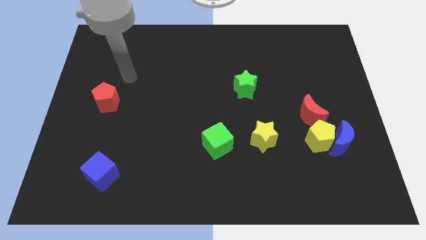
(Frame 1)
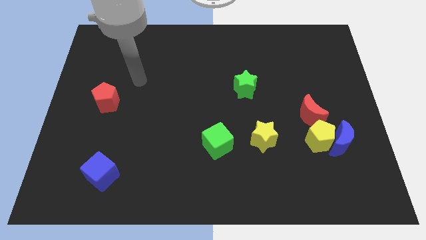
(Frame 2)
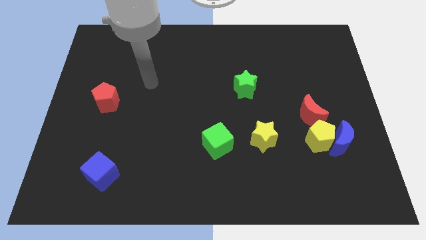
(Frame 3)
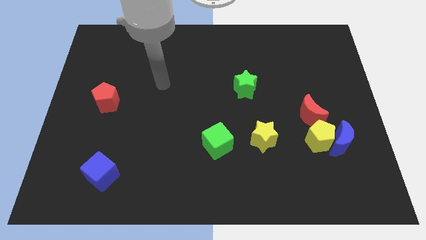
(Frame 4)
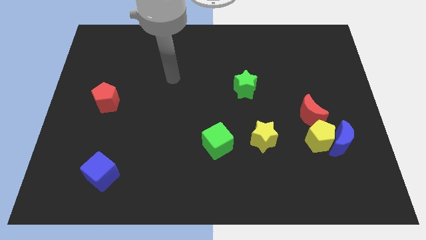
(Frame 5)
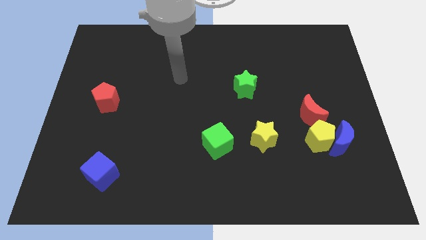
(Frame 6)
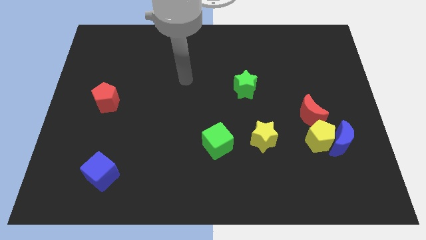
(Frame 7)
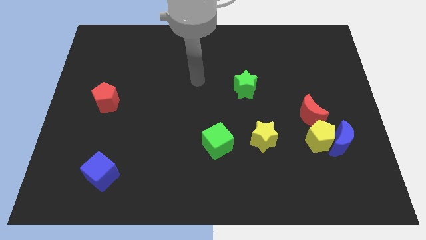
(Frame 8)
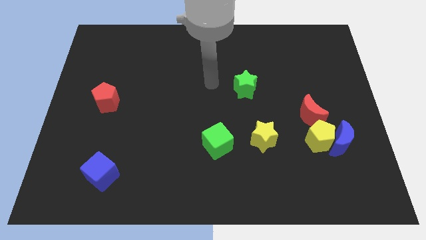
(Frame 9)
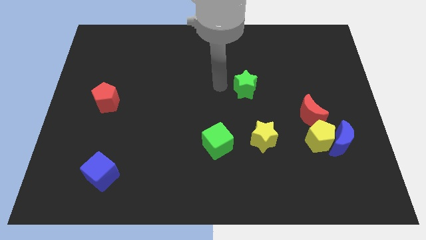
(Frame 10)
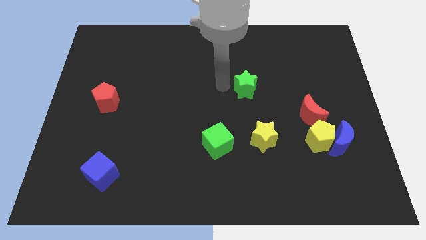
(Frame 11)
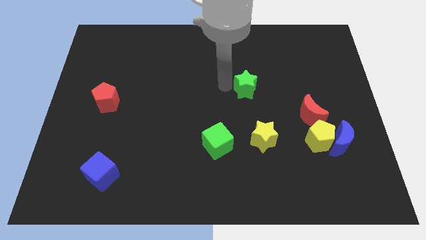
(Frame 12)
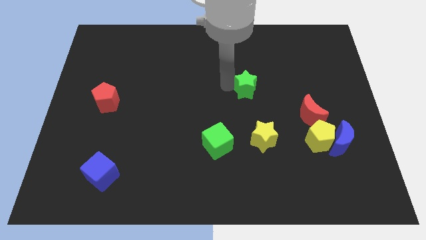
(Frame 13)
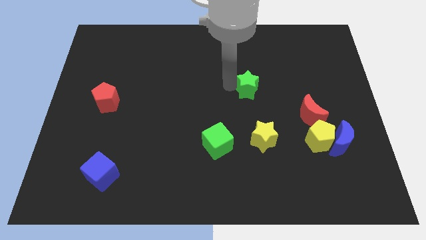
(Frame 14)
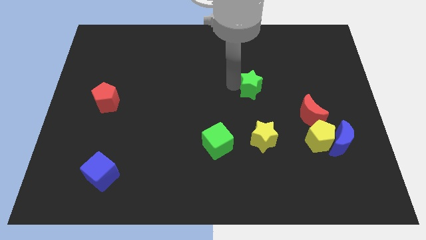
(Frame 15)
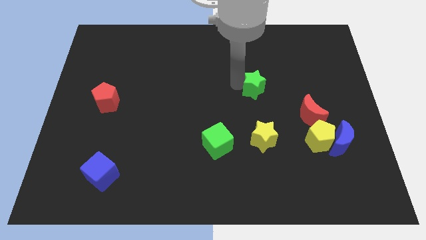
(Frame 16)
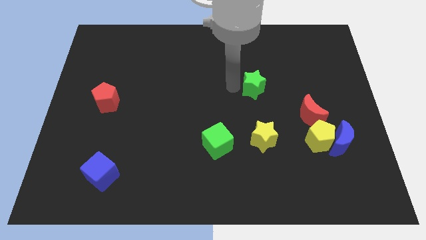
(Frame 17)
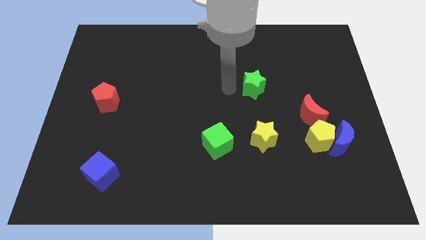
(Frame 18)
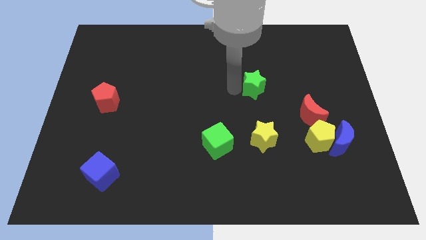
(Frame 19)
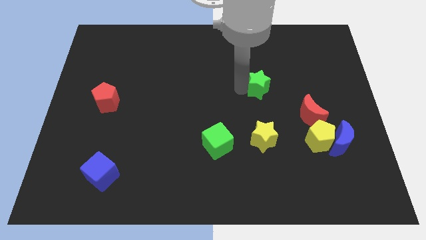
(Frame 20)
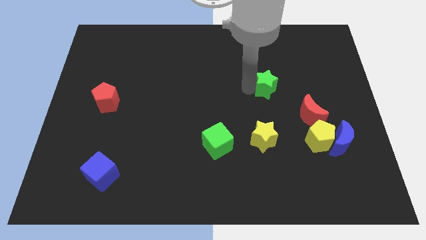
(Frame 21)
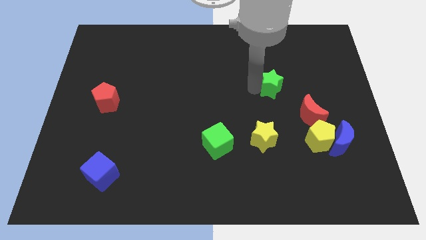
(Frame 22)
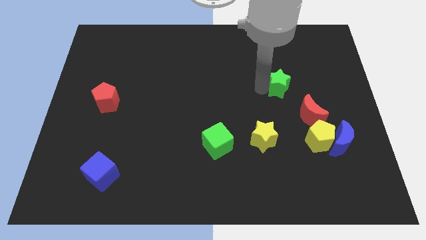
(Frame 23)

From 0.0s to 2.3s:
push the green star a bit to the right

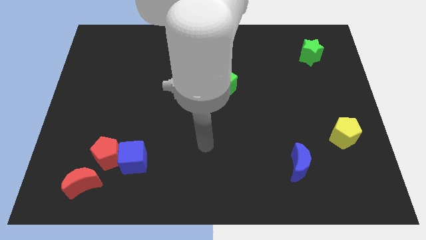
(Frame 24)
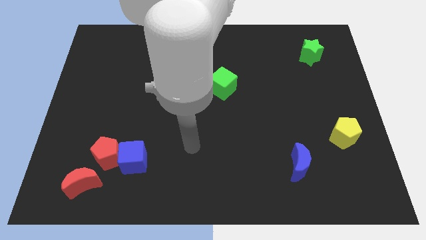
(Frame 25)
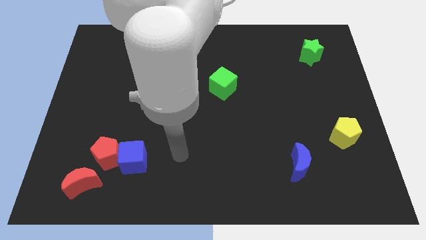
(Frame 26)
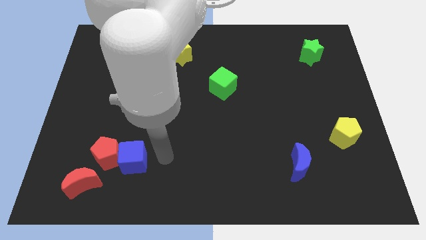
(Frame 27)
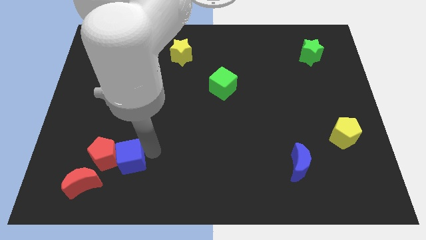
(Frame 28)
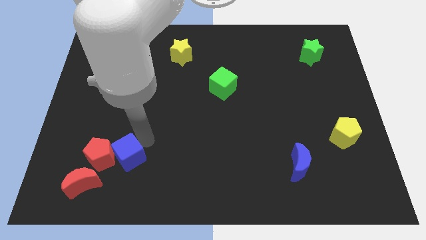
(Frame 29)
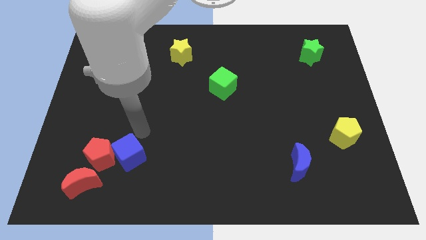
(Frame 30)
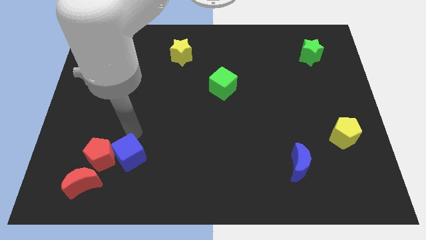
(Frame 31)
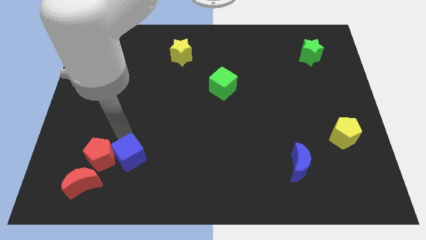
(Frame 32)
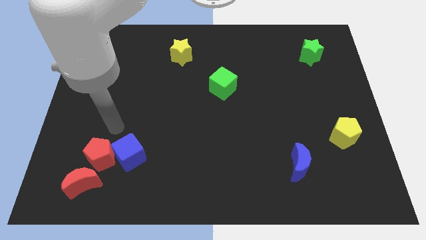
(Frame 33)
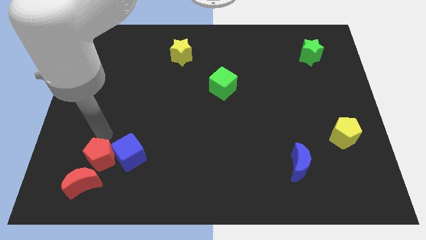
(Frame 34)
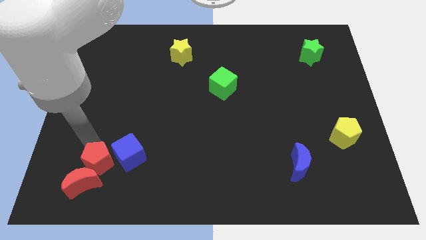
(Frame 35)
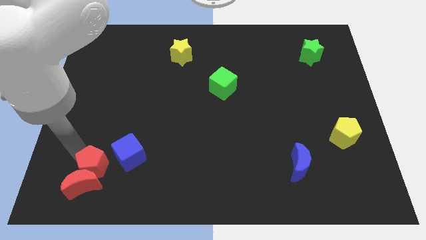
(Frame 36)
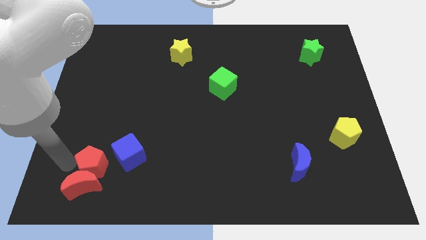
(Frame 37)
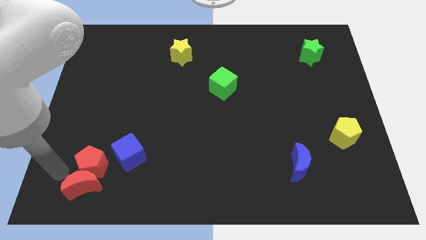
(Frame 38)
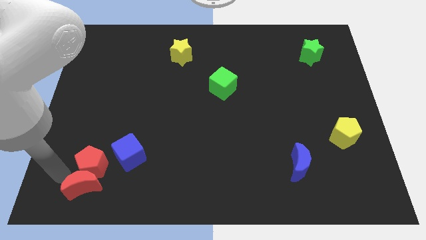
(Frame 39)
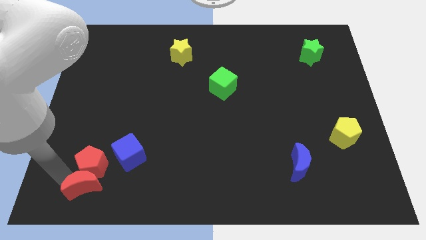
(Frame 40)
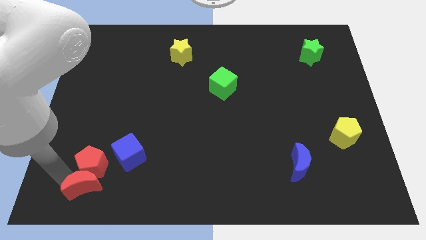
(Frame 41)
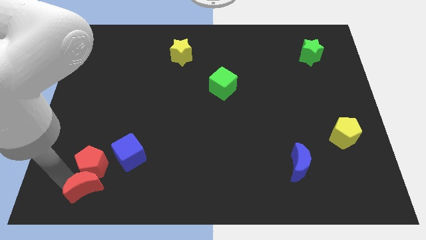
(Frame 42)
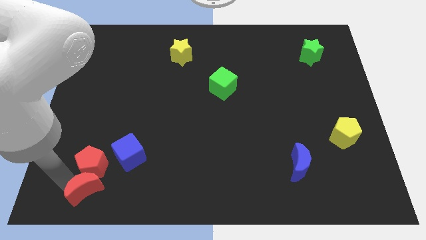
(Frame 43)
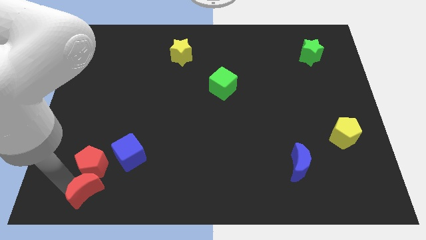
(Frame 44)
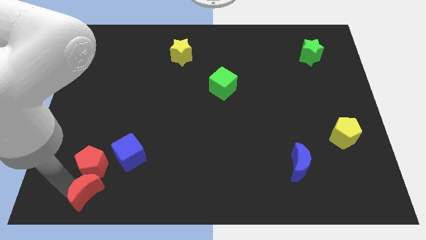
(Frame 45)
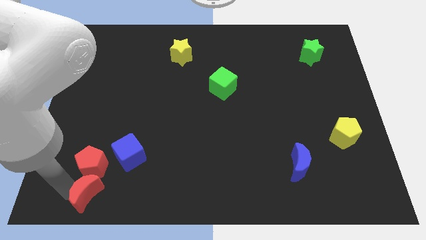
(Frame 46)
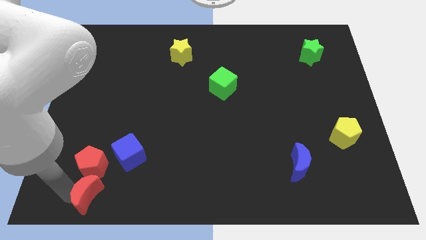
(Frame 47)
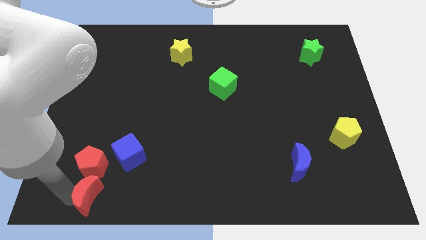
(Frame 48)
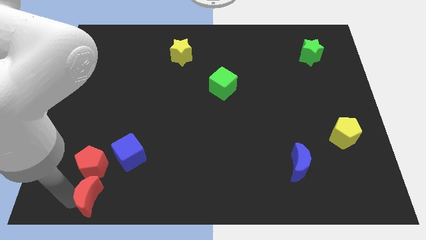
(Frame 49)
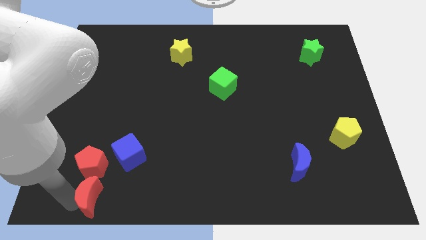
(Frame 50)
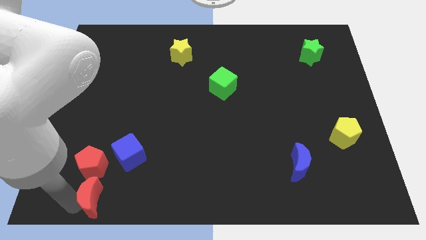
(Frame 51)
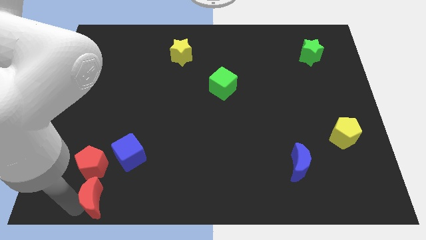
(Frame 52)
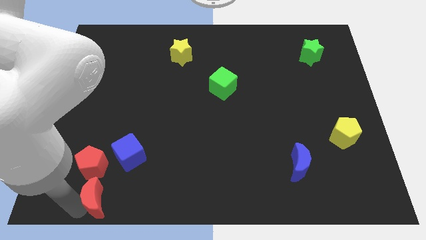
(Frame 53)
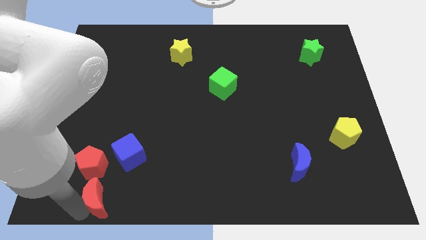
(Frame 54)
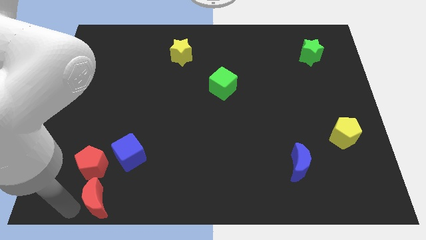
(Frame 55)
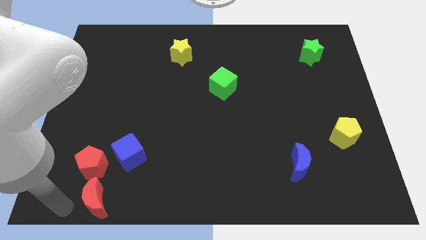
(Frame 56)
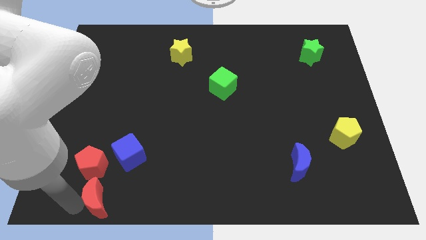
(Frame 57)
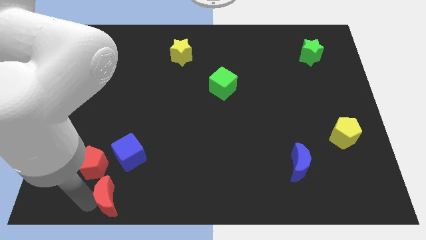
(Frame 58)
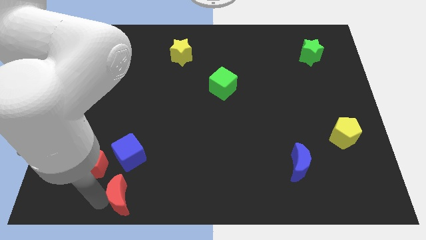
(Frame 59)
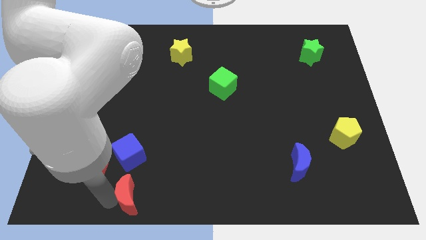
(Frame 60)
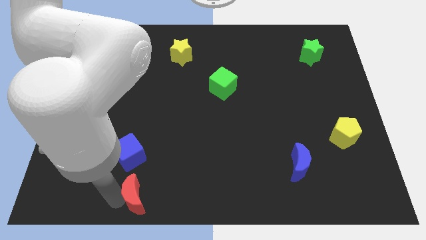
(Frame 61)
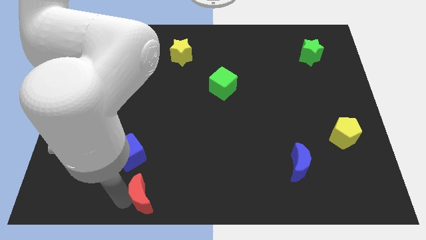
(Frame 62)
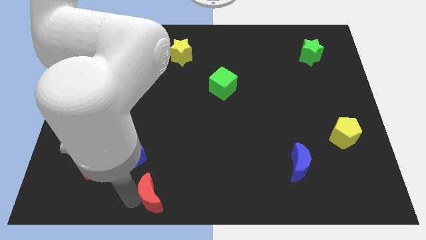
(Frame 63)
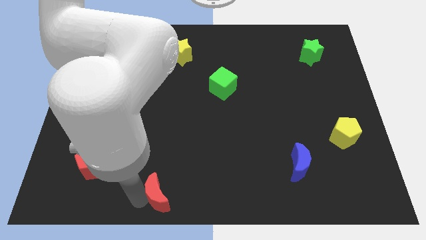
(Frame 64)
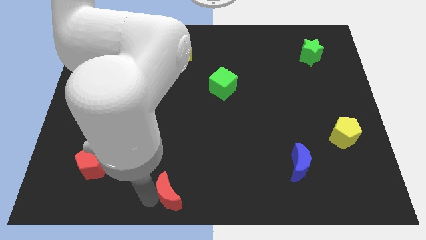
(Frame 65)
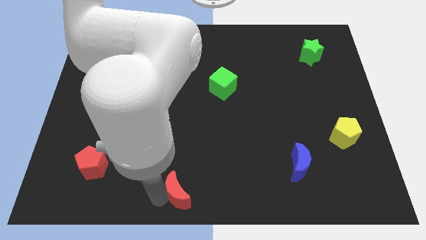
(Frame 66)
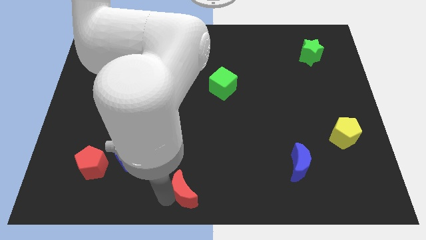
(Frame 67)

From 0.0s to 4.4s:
move the red moon to the right

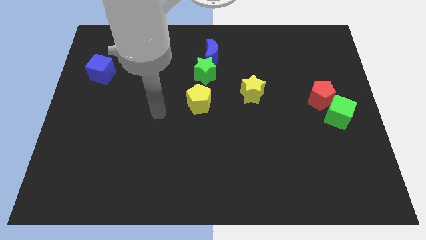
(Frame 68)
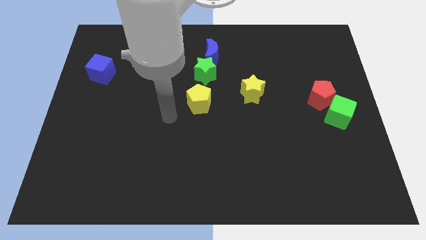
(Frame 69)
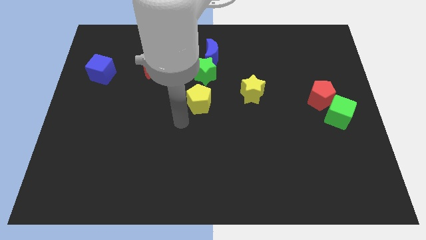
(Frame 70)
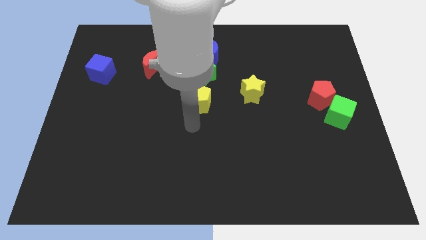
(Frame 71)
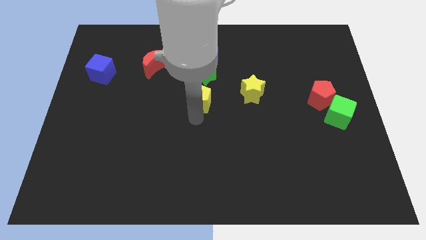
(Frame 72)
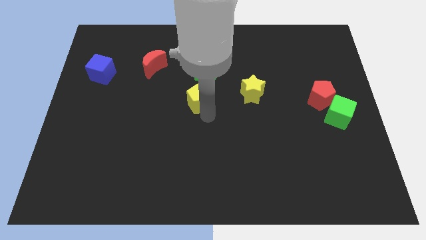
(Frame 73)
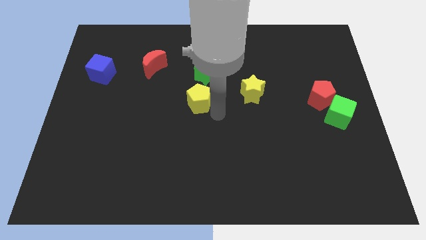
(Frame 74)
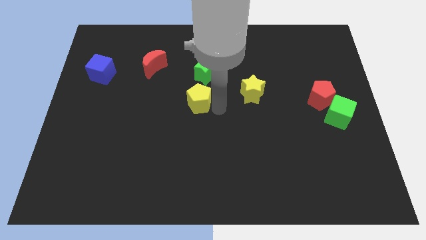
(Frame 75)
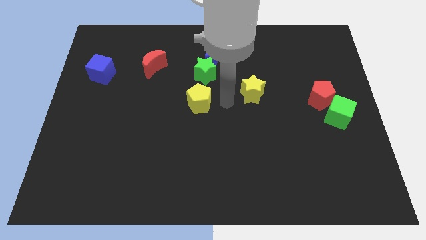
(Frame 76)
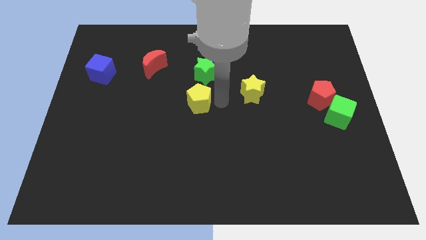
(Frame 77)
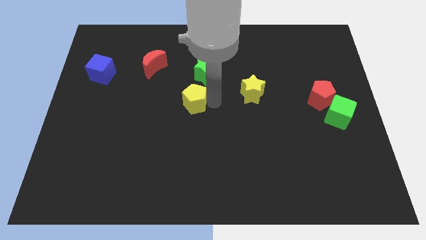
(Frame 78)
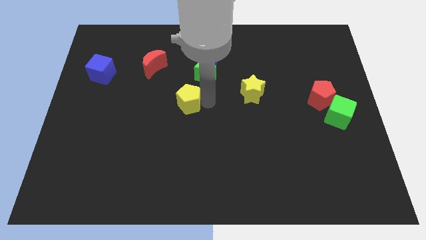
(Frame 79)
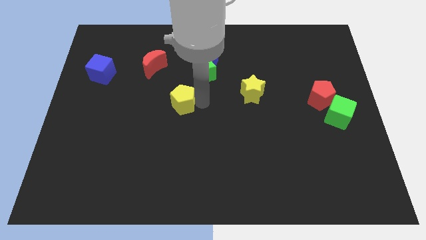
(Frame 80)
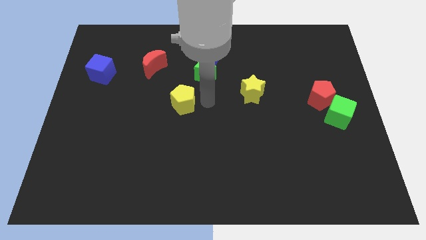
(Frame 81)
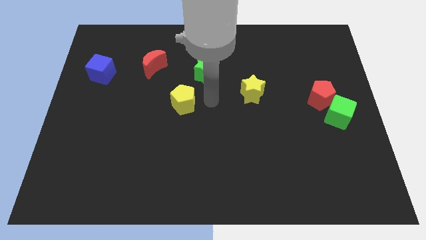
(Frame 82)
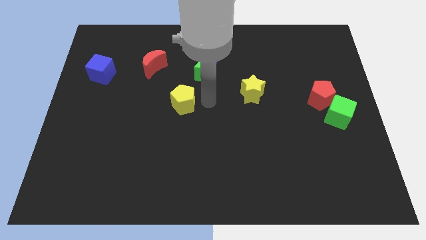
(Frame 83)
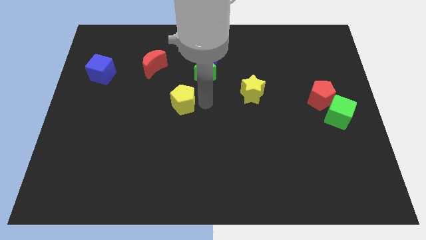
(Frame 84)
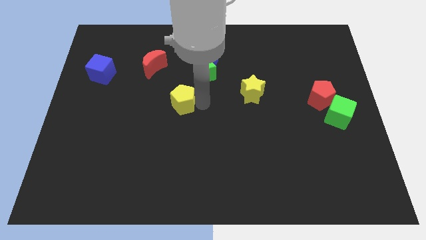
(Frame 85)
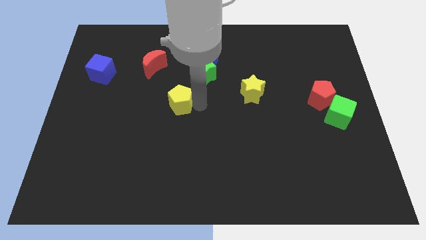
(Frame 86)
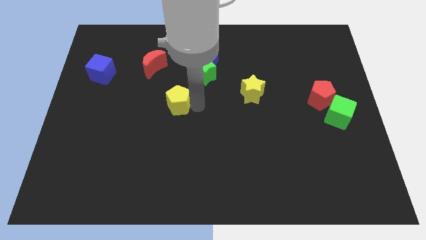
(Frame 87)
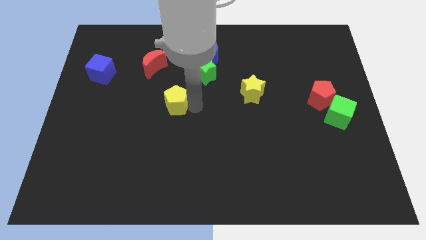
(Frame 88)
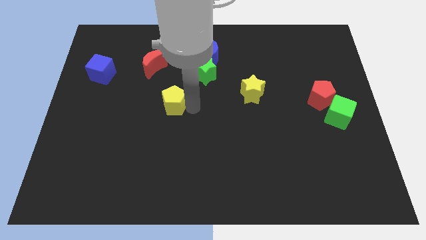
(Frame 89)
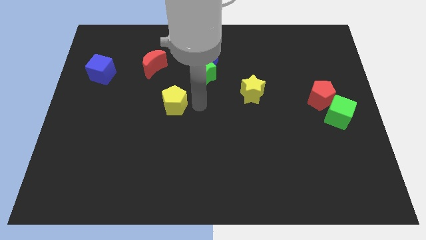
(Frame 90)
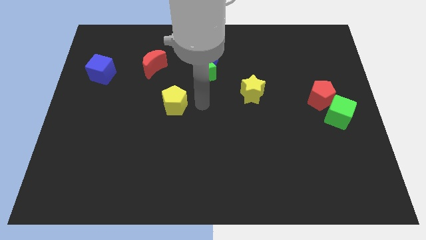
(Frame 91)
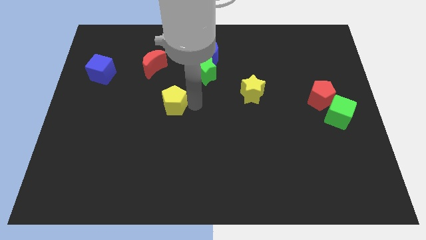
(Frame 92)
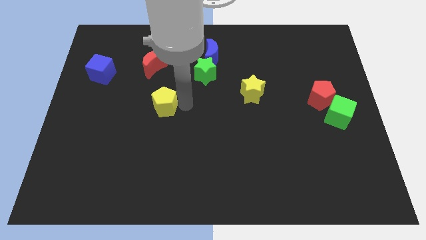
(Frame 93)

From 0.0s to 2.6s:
slightly push the yellow pentagon to the left
